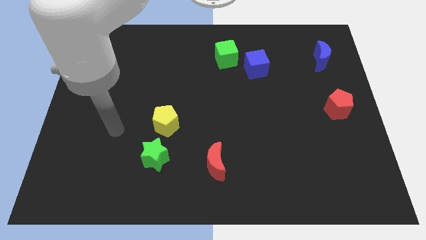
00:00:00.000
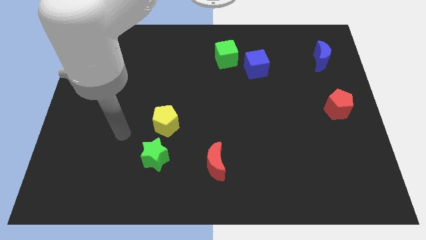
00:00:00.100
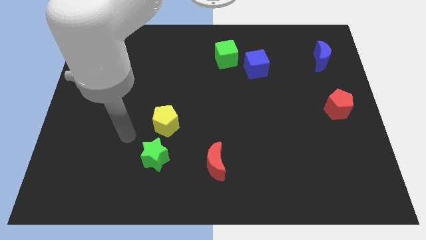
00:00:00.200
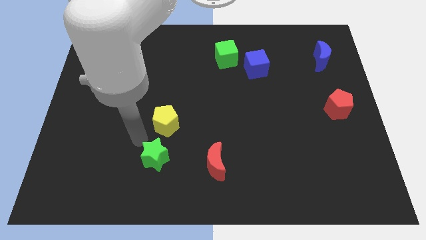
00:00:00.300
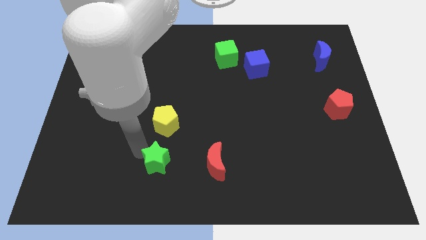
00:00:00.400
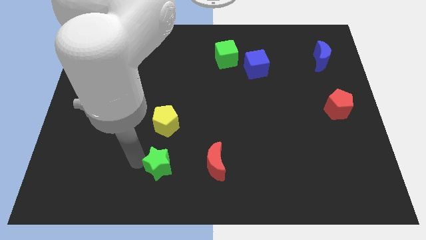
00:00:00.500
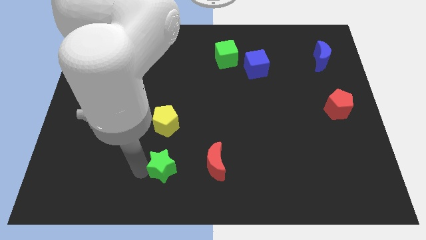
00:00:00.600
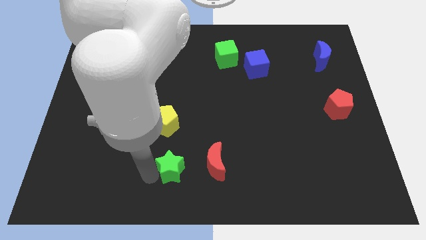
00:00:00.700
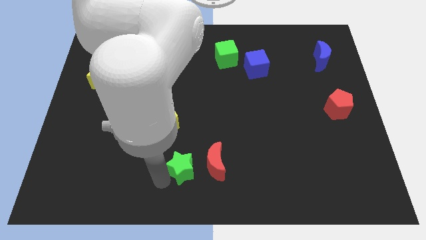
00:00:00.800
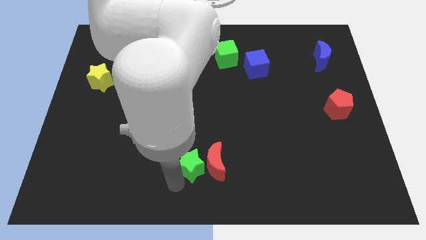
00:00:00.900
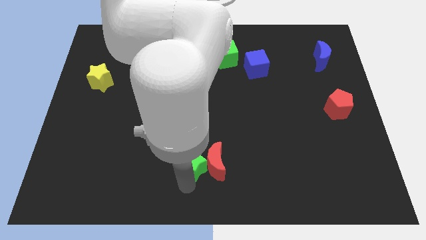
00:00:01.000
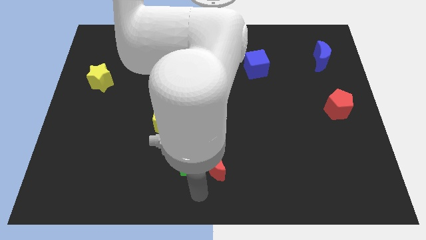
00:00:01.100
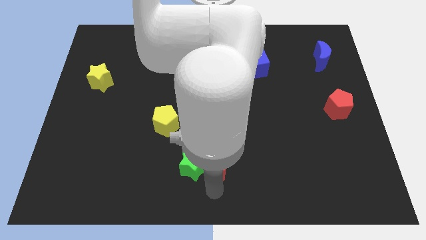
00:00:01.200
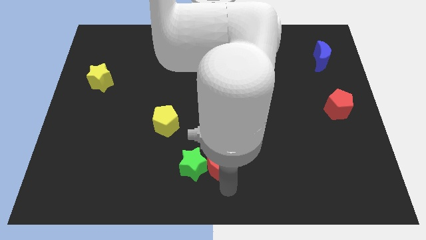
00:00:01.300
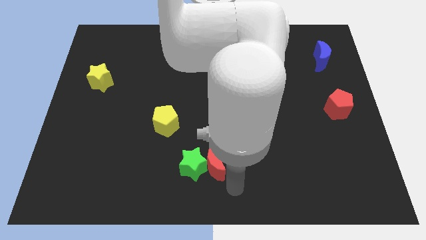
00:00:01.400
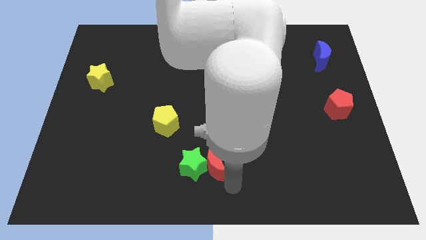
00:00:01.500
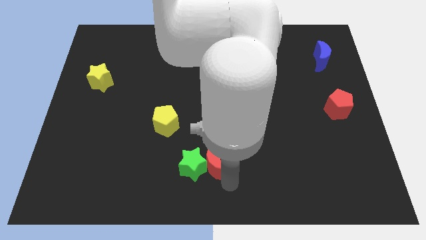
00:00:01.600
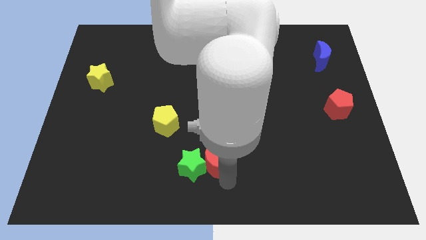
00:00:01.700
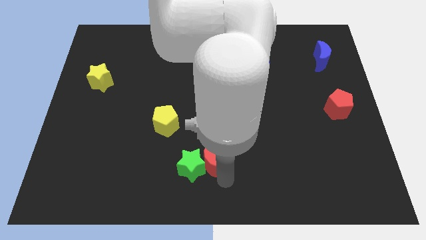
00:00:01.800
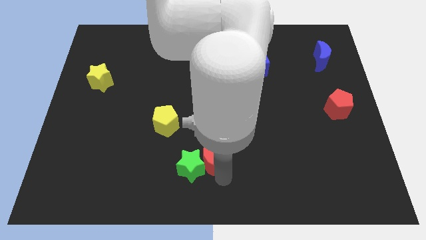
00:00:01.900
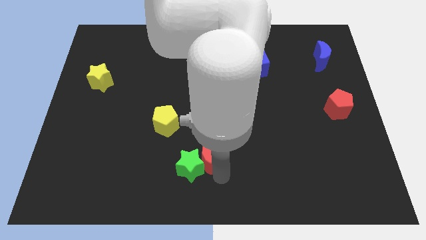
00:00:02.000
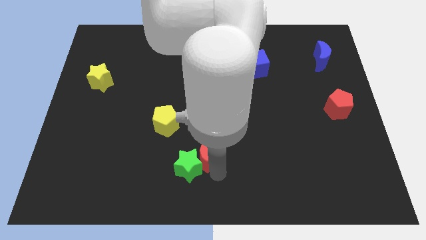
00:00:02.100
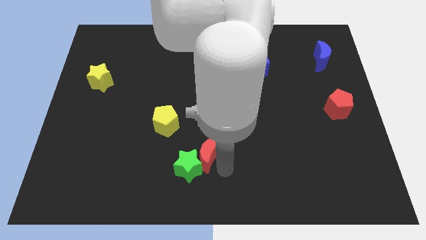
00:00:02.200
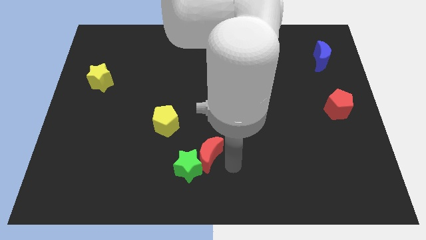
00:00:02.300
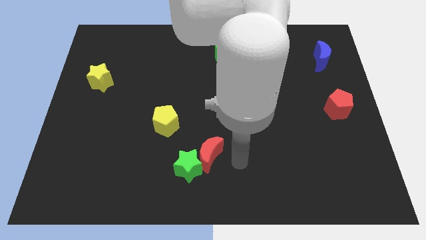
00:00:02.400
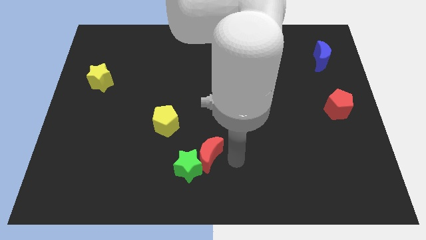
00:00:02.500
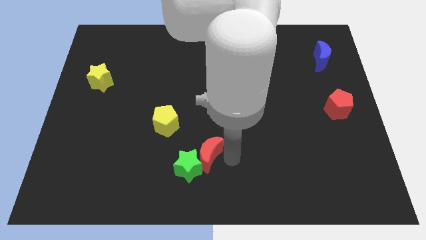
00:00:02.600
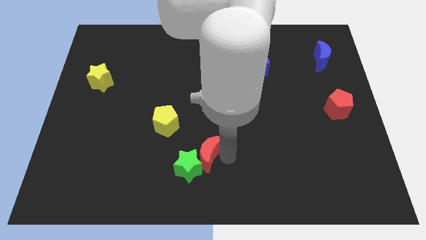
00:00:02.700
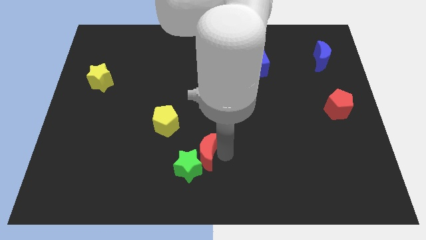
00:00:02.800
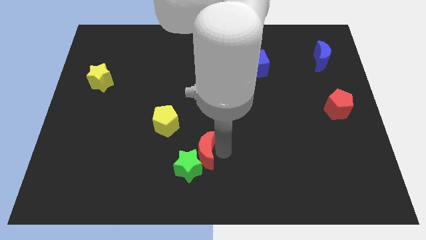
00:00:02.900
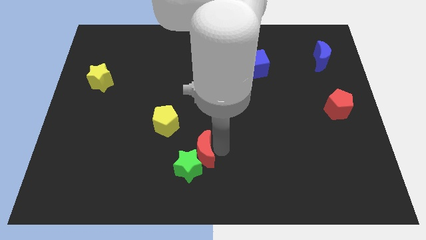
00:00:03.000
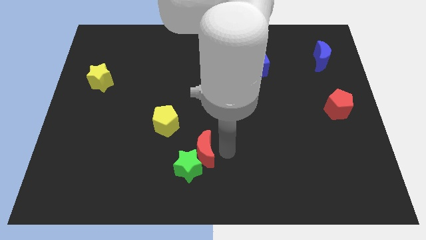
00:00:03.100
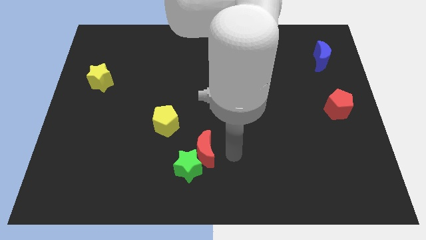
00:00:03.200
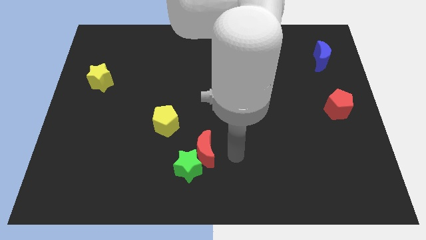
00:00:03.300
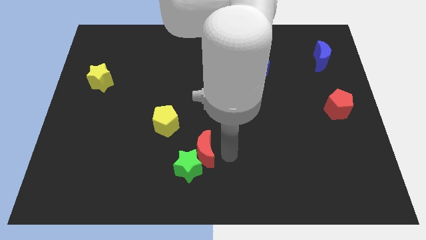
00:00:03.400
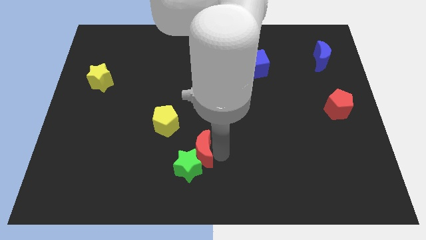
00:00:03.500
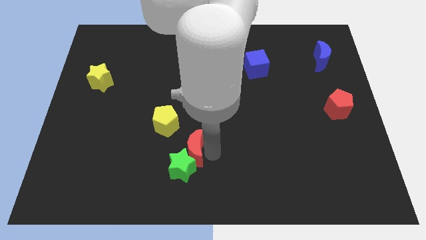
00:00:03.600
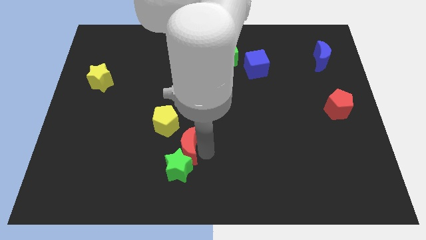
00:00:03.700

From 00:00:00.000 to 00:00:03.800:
slightly push the red moon up and to the left diagonally

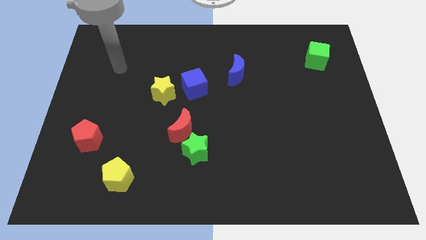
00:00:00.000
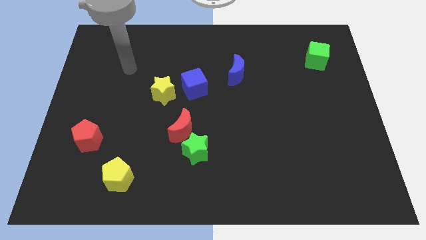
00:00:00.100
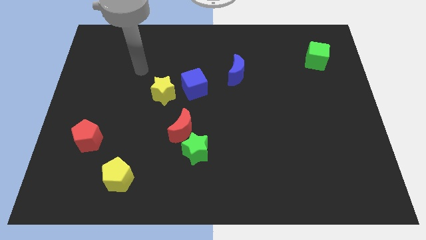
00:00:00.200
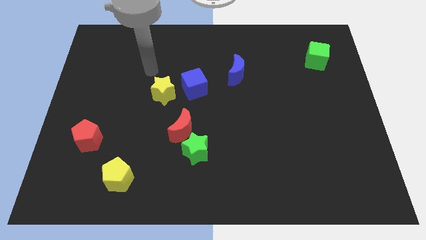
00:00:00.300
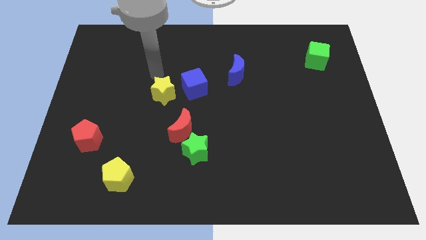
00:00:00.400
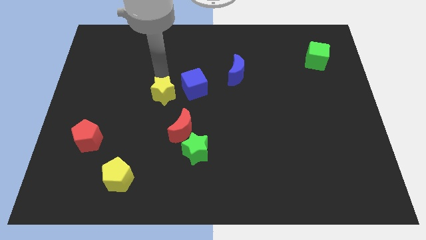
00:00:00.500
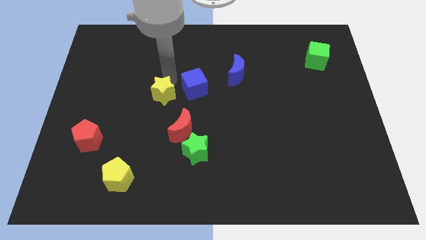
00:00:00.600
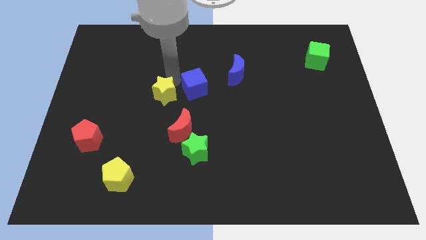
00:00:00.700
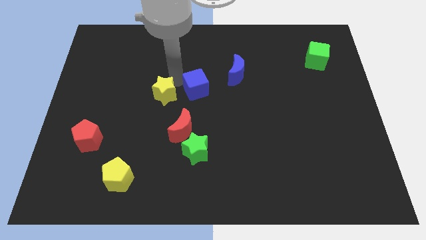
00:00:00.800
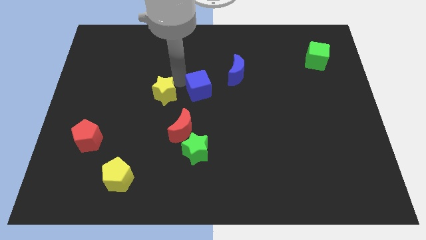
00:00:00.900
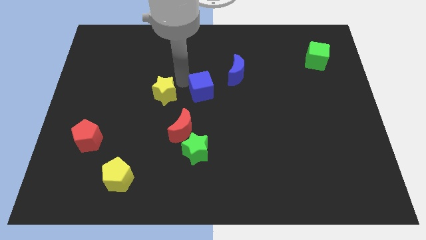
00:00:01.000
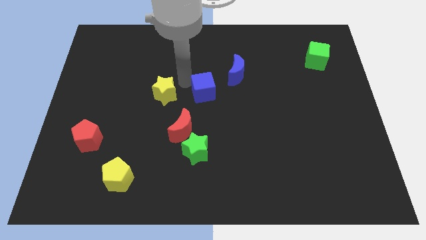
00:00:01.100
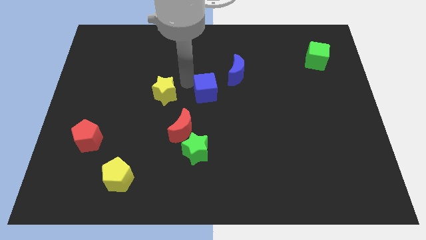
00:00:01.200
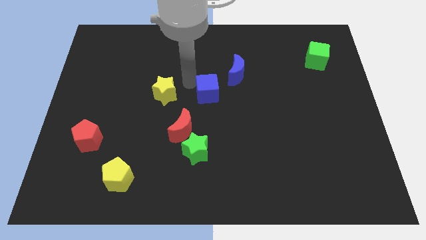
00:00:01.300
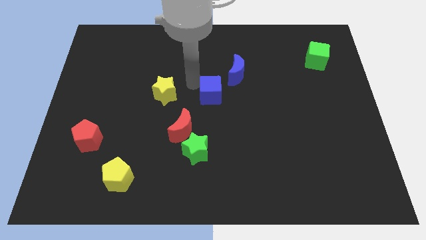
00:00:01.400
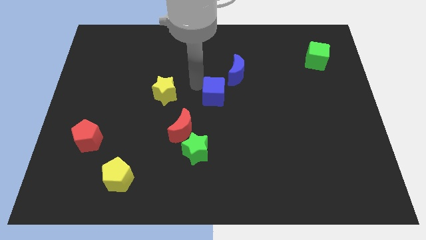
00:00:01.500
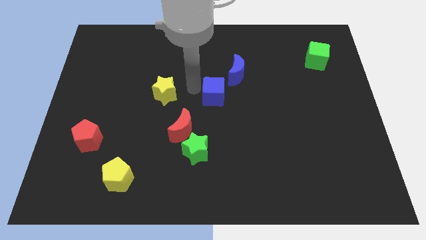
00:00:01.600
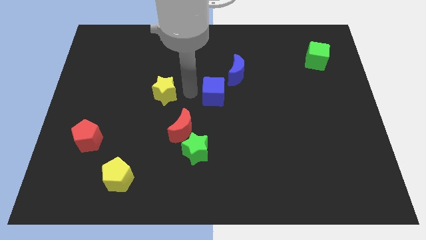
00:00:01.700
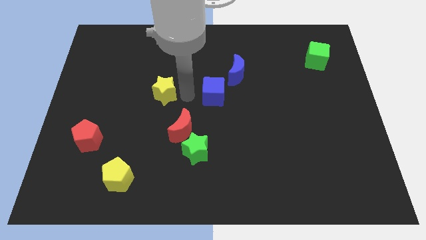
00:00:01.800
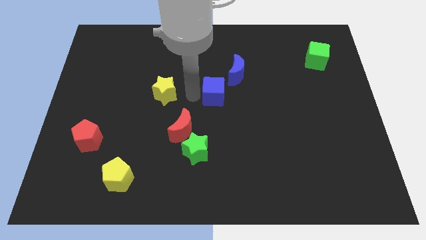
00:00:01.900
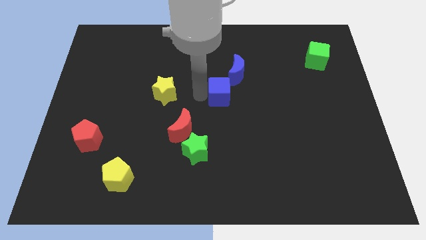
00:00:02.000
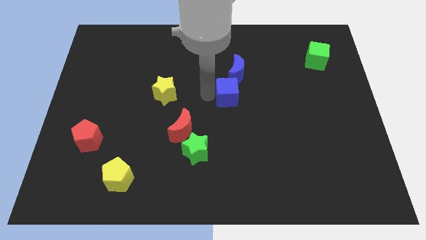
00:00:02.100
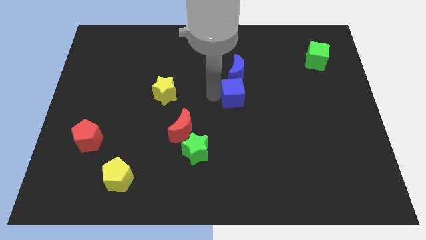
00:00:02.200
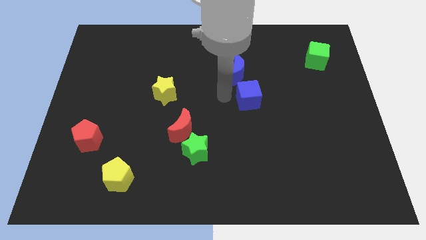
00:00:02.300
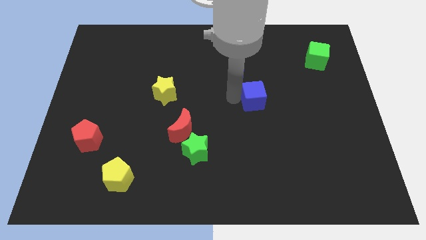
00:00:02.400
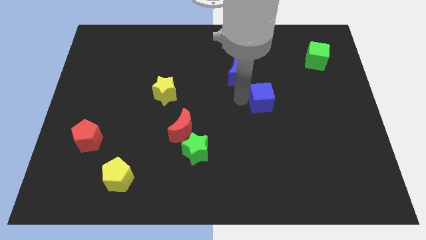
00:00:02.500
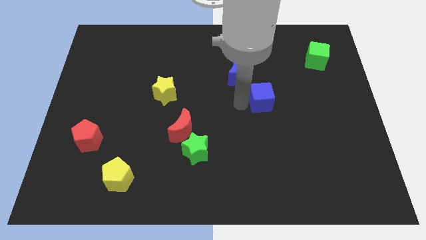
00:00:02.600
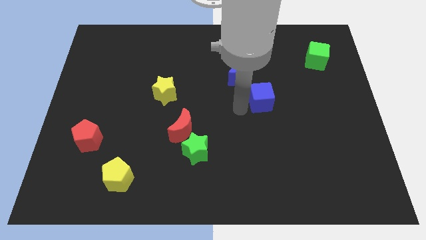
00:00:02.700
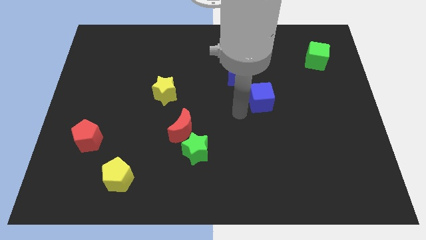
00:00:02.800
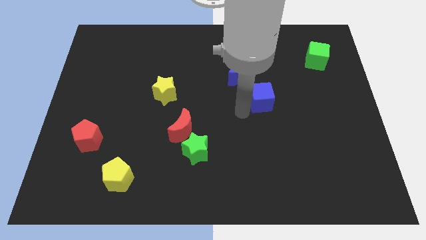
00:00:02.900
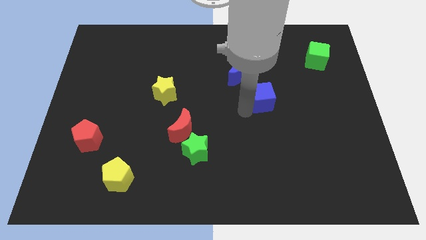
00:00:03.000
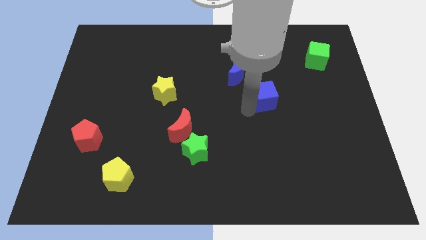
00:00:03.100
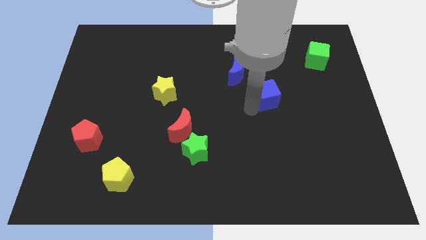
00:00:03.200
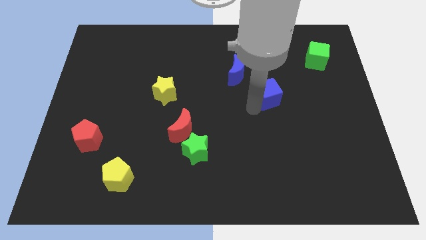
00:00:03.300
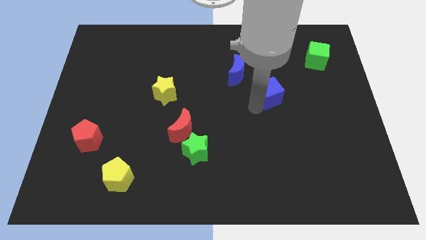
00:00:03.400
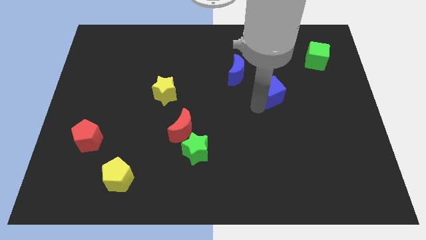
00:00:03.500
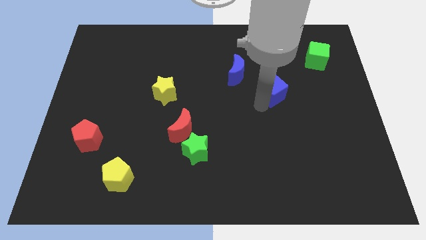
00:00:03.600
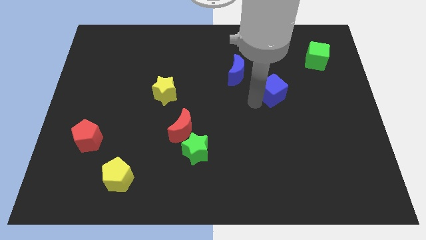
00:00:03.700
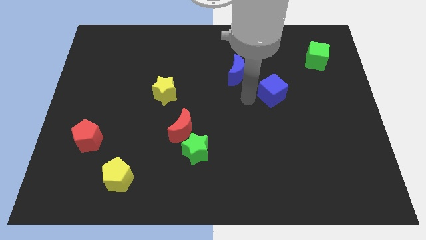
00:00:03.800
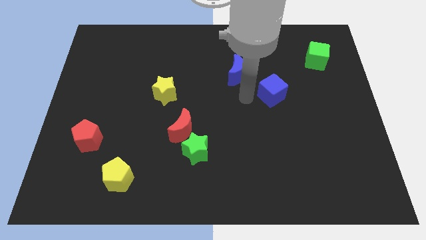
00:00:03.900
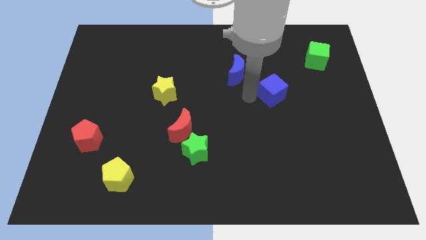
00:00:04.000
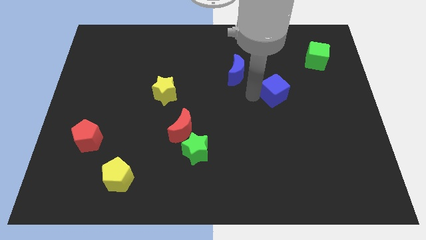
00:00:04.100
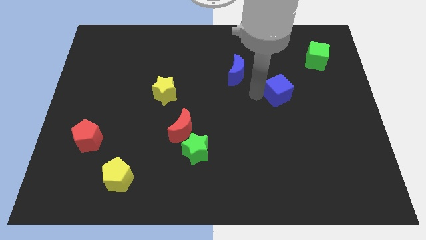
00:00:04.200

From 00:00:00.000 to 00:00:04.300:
move the blue cube right
